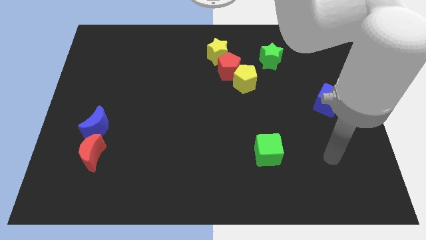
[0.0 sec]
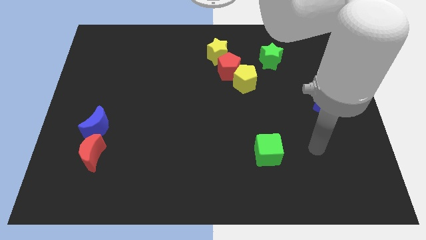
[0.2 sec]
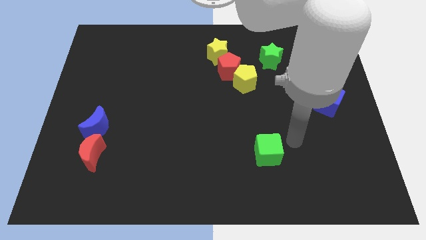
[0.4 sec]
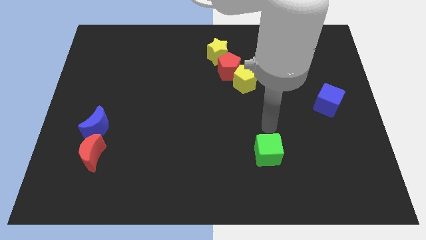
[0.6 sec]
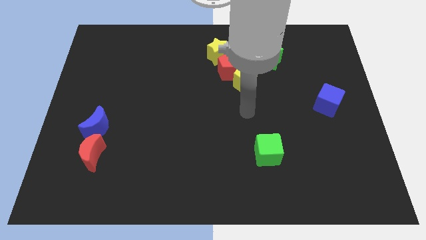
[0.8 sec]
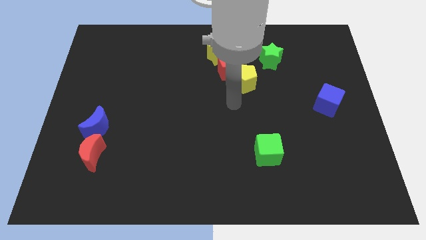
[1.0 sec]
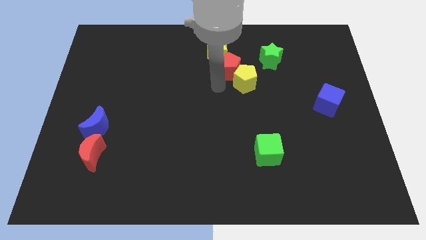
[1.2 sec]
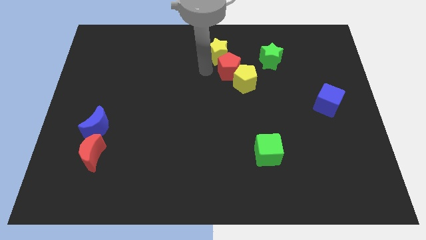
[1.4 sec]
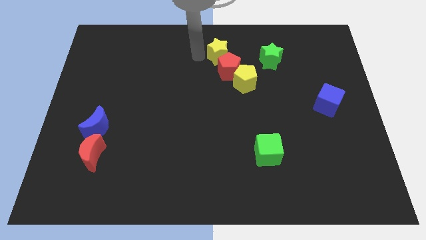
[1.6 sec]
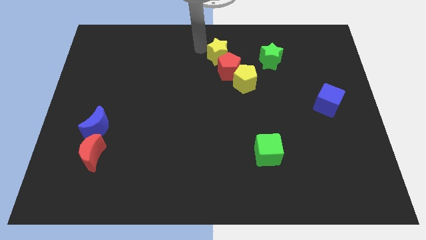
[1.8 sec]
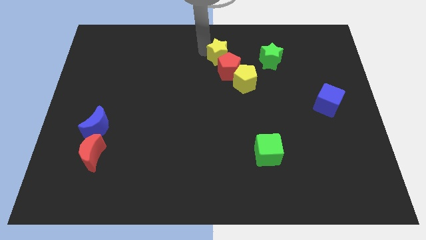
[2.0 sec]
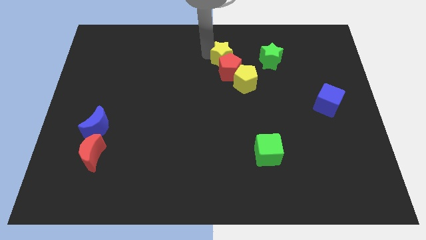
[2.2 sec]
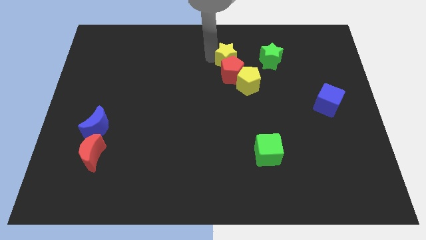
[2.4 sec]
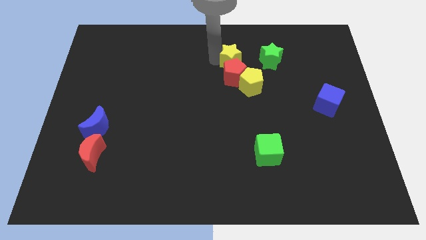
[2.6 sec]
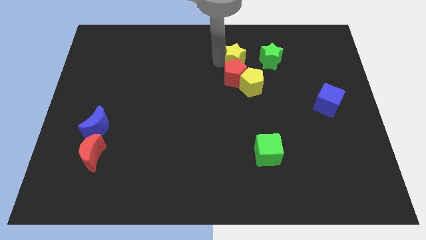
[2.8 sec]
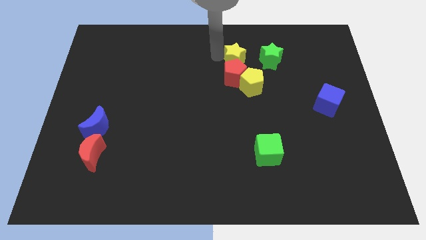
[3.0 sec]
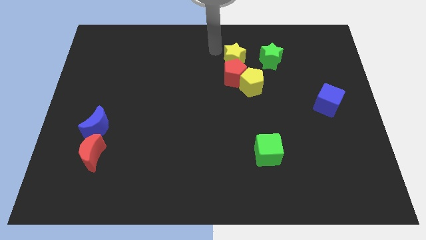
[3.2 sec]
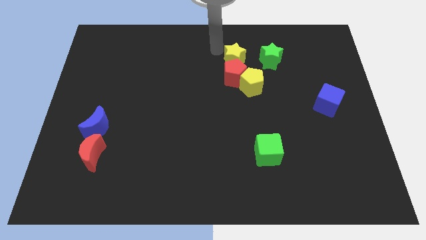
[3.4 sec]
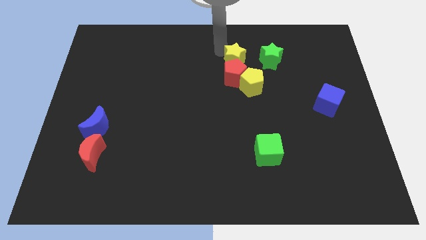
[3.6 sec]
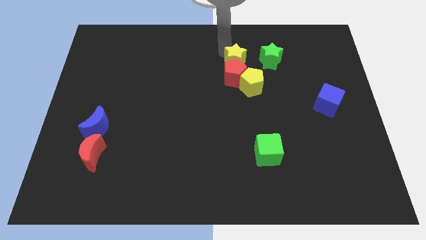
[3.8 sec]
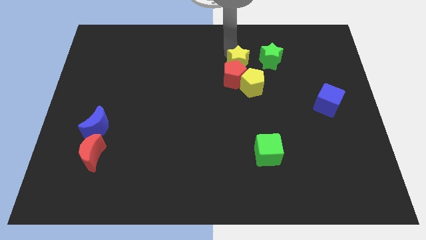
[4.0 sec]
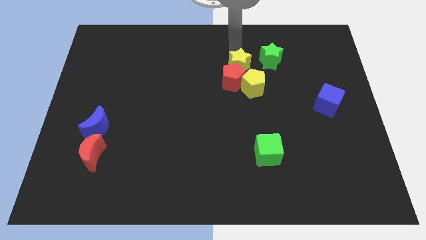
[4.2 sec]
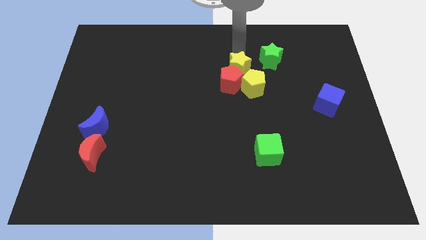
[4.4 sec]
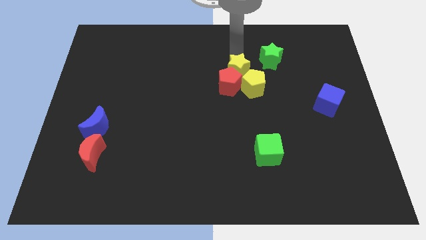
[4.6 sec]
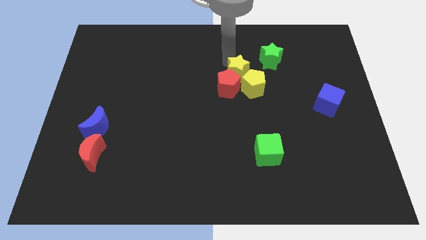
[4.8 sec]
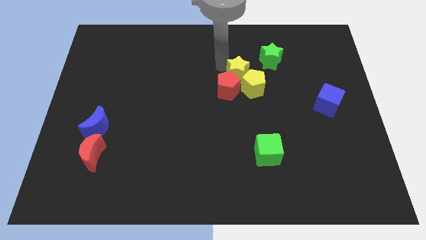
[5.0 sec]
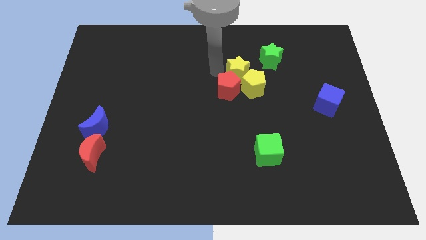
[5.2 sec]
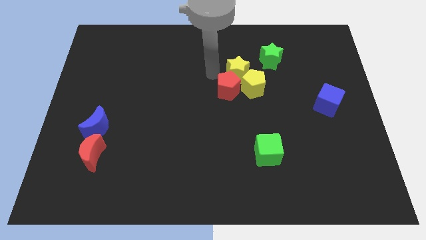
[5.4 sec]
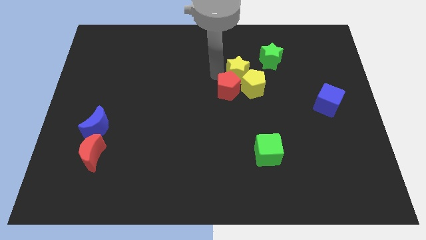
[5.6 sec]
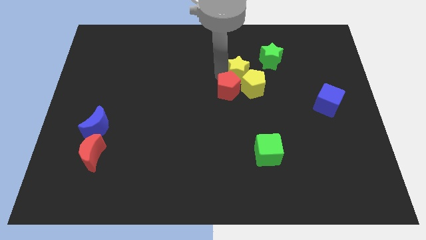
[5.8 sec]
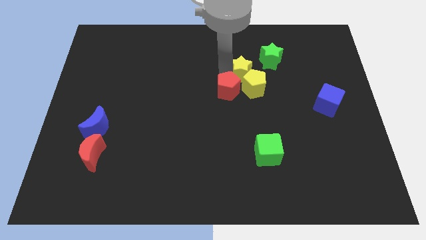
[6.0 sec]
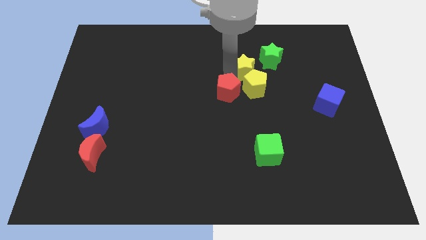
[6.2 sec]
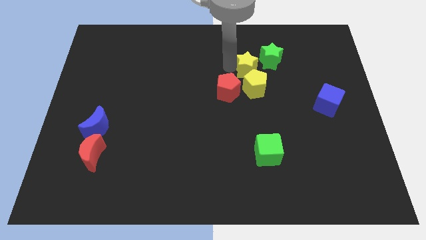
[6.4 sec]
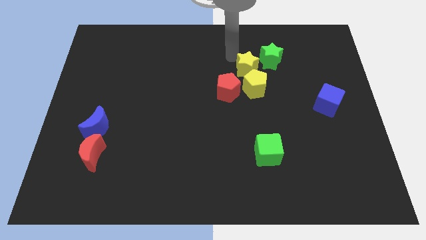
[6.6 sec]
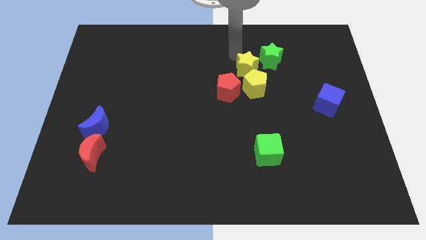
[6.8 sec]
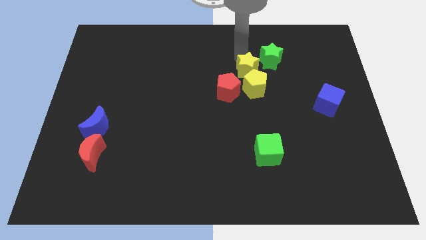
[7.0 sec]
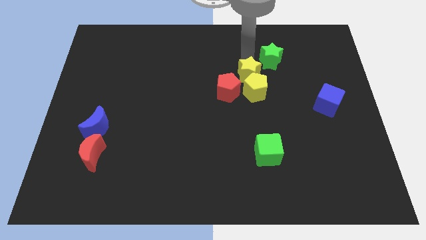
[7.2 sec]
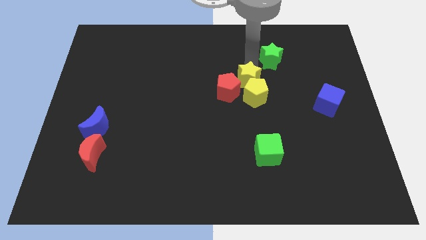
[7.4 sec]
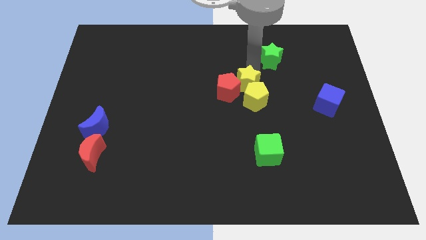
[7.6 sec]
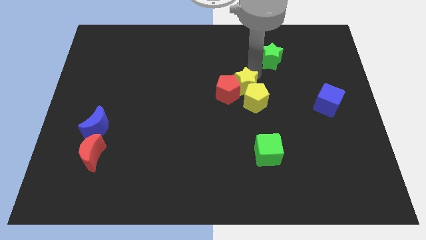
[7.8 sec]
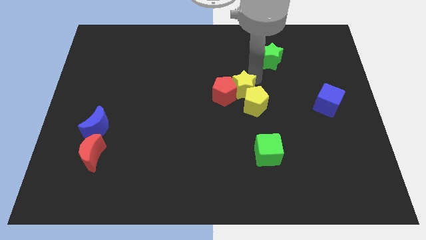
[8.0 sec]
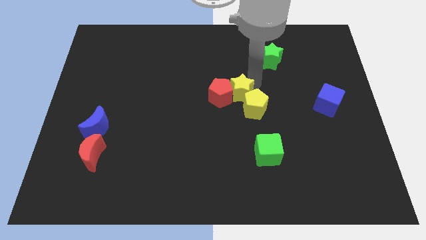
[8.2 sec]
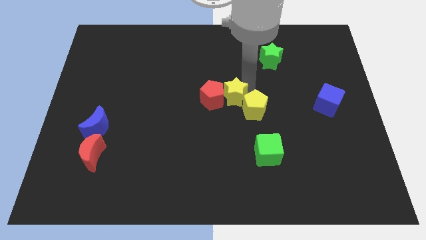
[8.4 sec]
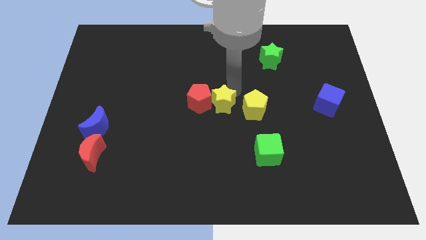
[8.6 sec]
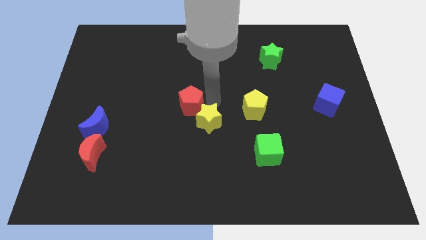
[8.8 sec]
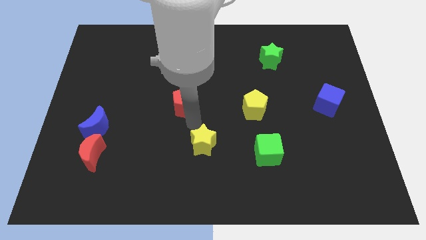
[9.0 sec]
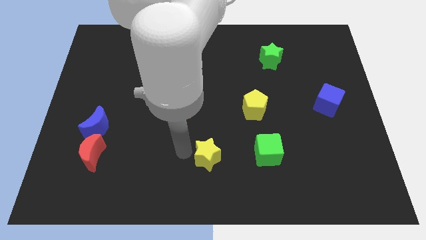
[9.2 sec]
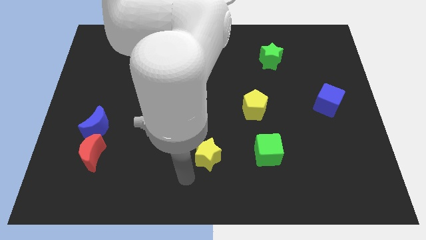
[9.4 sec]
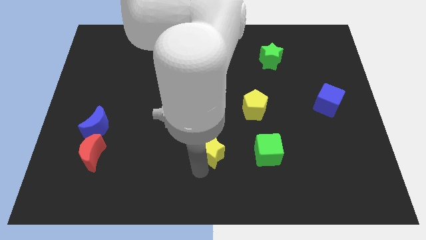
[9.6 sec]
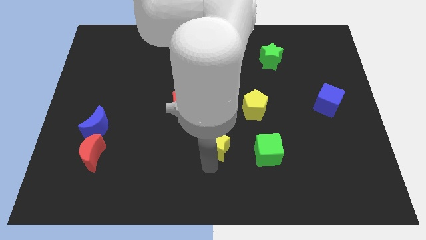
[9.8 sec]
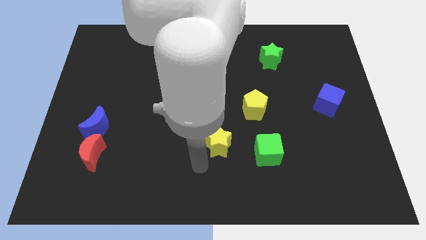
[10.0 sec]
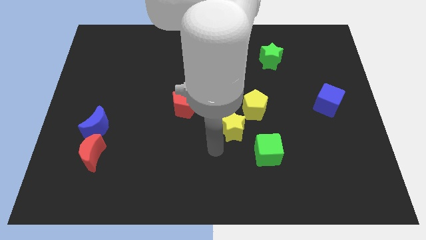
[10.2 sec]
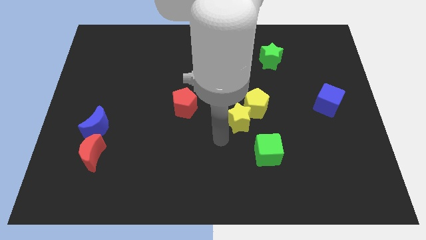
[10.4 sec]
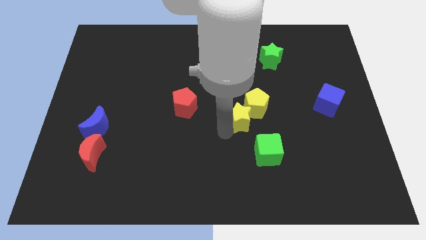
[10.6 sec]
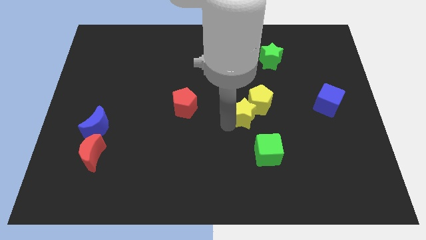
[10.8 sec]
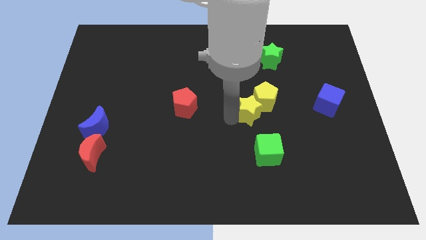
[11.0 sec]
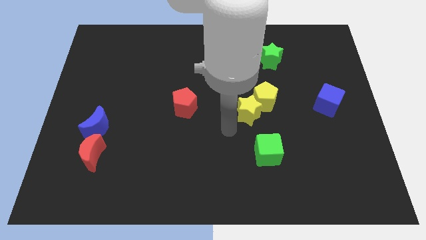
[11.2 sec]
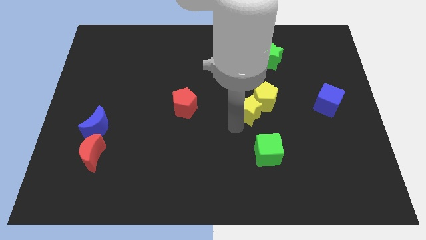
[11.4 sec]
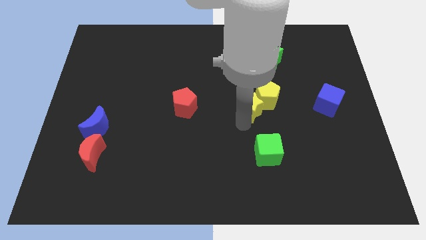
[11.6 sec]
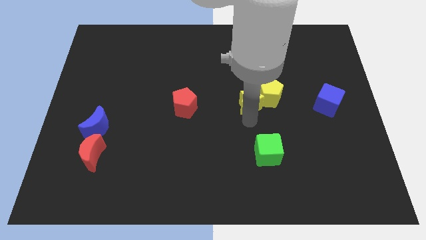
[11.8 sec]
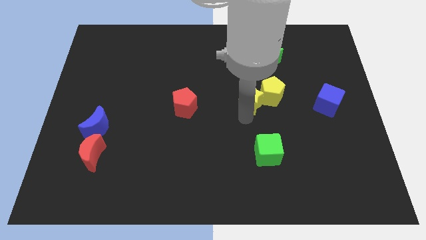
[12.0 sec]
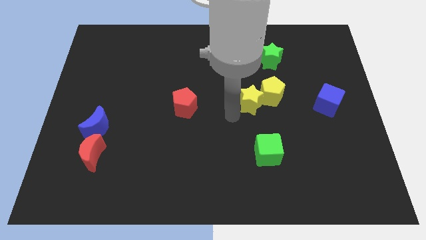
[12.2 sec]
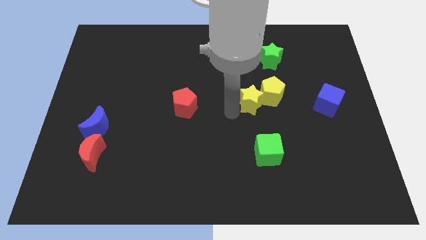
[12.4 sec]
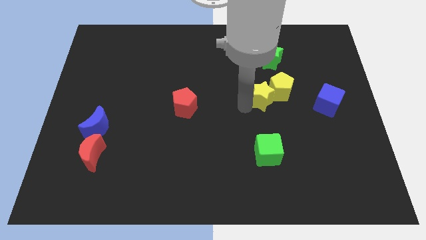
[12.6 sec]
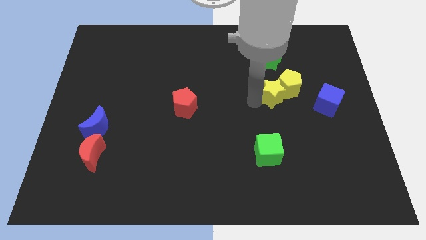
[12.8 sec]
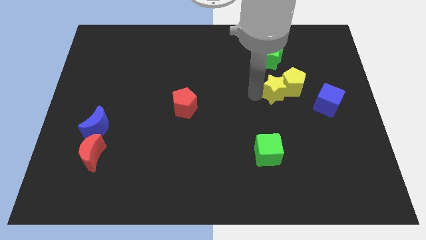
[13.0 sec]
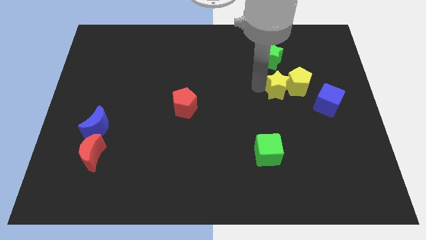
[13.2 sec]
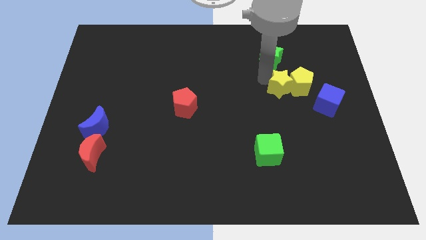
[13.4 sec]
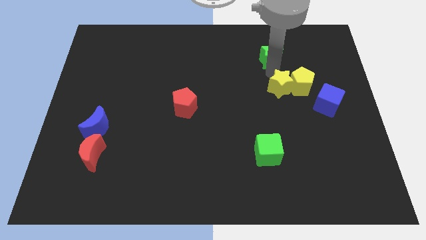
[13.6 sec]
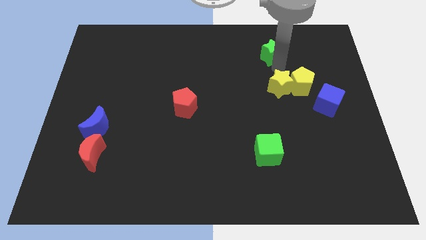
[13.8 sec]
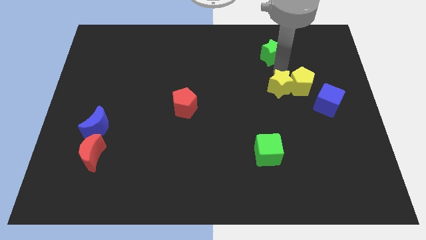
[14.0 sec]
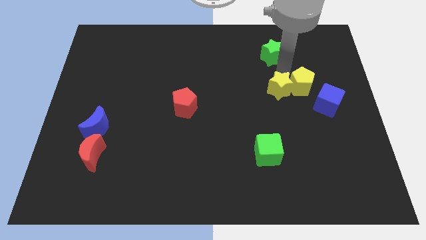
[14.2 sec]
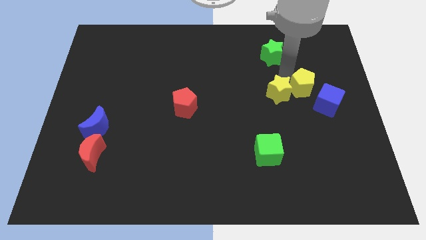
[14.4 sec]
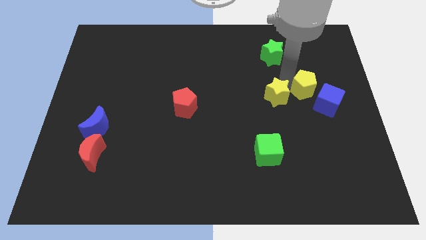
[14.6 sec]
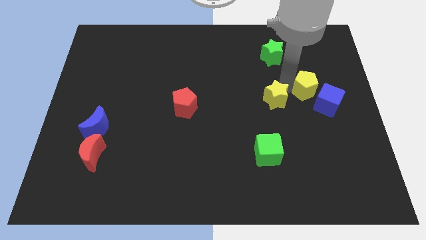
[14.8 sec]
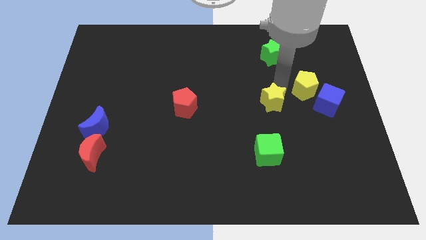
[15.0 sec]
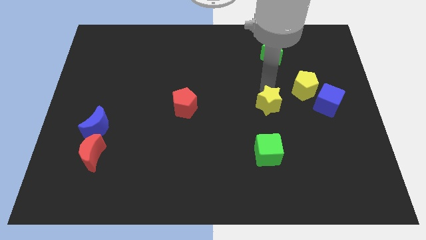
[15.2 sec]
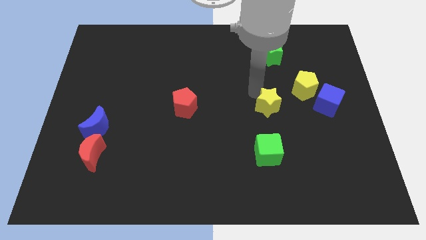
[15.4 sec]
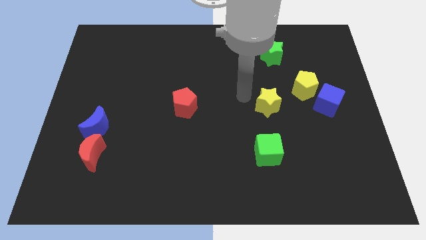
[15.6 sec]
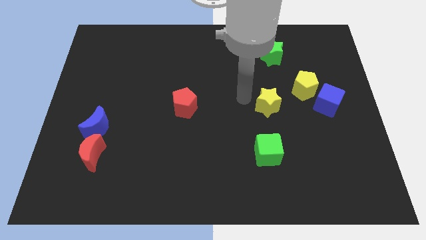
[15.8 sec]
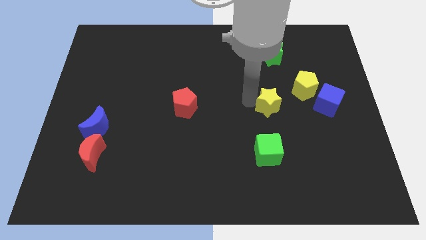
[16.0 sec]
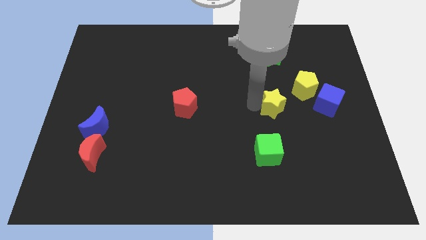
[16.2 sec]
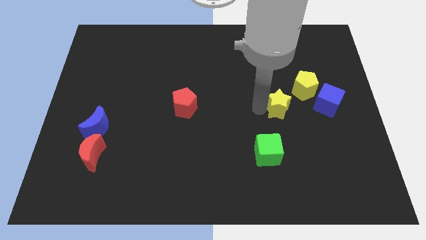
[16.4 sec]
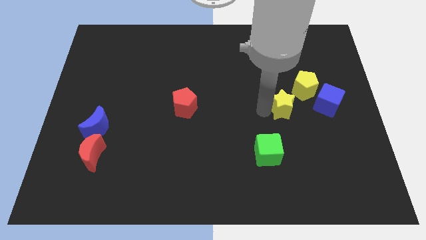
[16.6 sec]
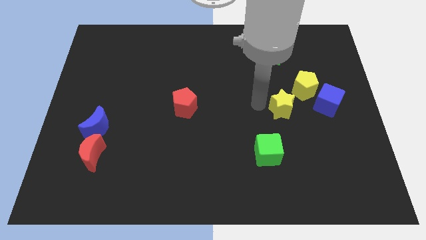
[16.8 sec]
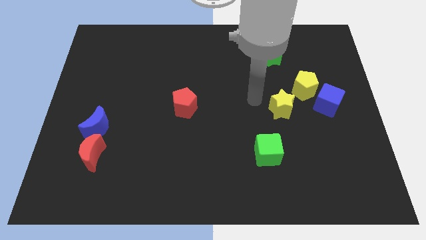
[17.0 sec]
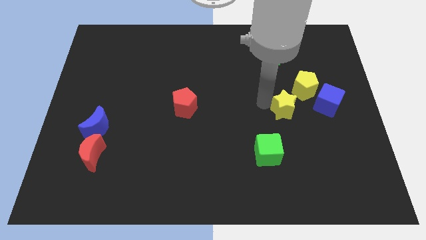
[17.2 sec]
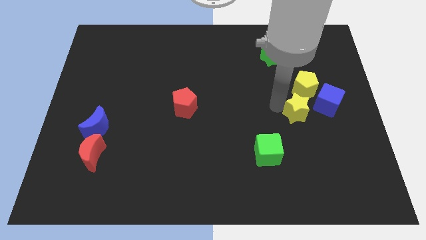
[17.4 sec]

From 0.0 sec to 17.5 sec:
move the yellow star to the bottom left of the blue cube
